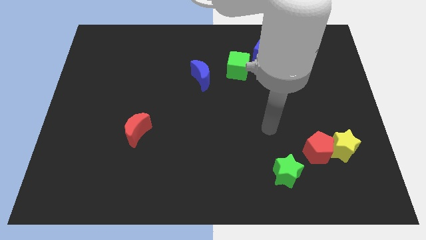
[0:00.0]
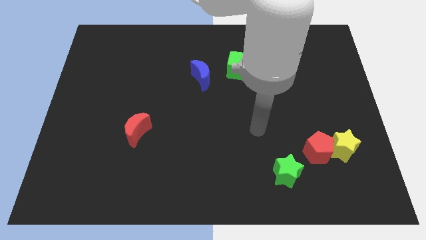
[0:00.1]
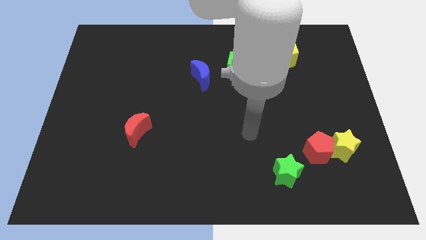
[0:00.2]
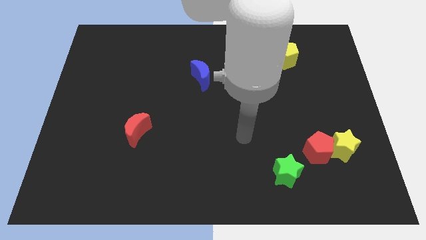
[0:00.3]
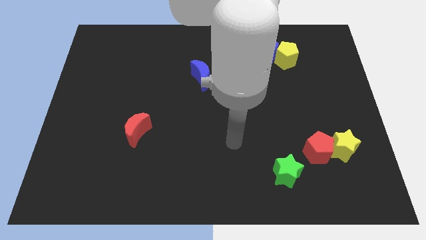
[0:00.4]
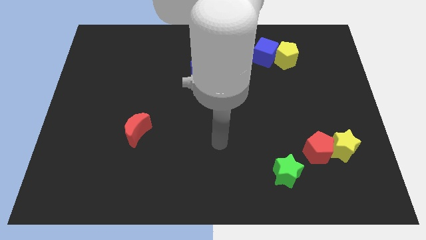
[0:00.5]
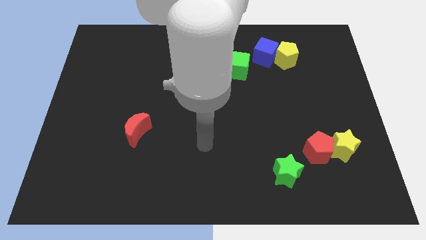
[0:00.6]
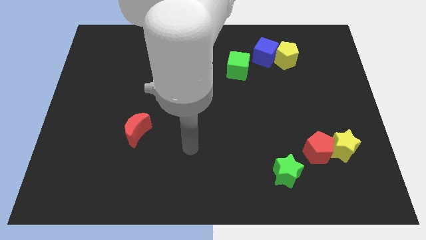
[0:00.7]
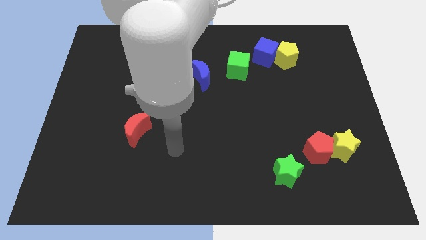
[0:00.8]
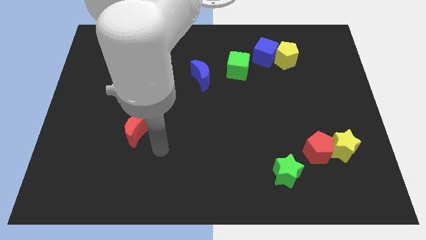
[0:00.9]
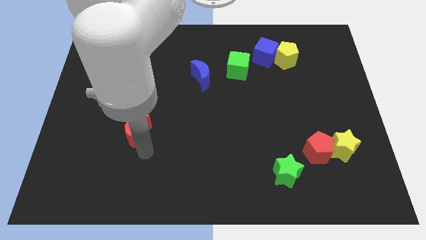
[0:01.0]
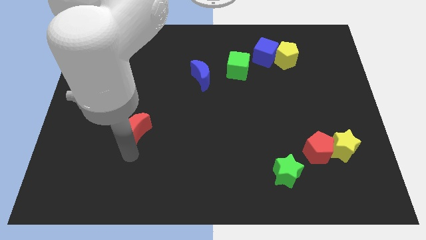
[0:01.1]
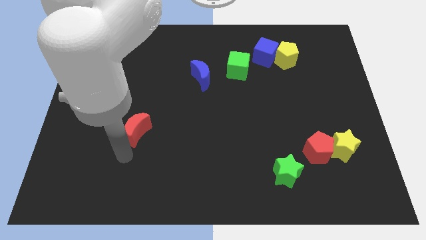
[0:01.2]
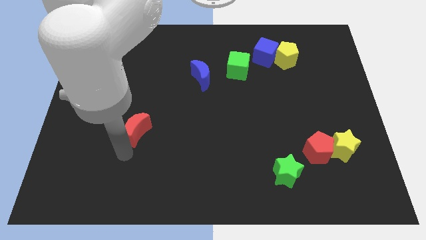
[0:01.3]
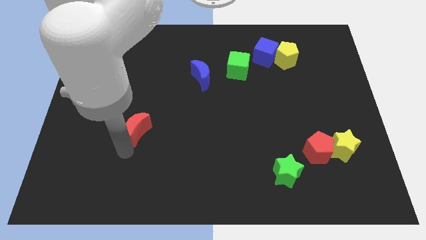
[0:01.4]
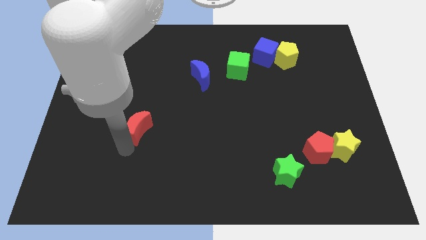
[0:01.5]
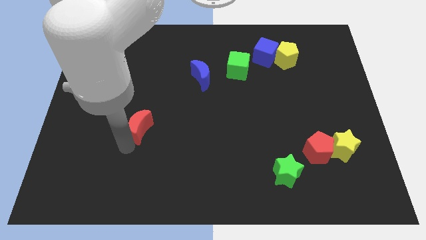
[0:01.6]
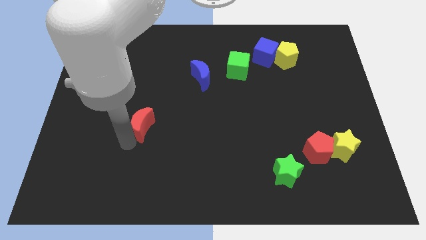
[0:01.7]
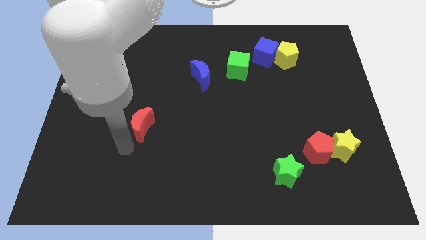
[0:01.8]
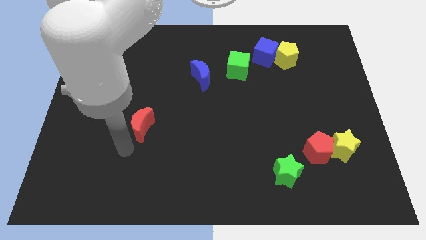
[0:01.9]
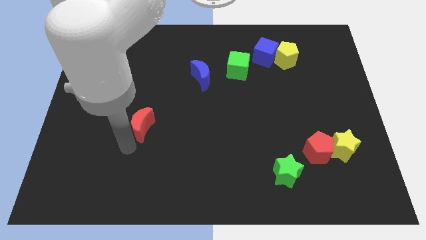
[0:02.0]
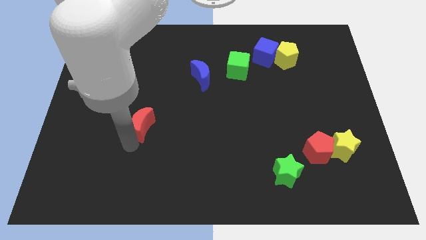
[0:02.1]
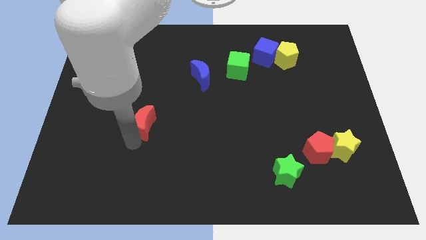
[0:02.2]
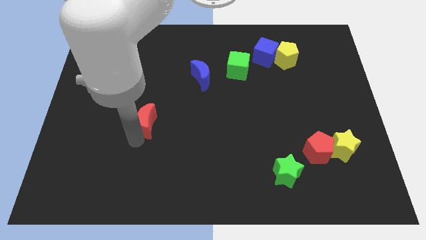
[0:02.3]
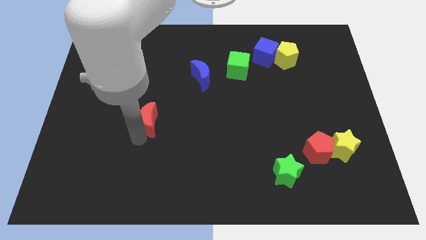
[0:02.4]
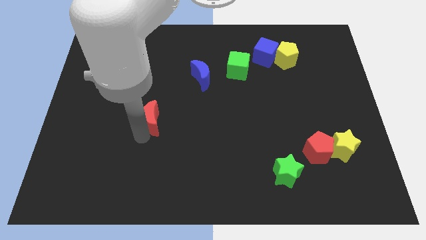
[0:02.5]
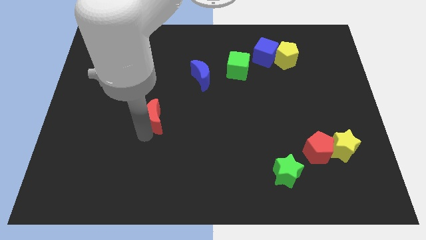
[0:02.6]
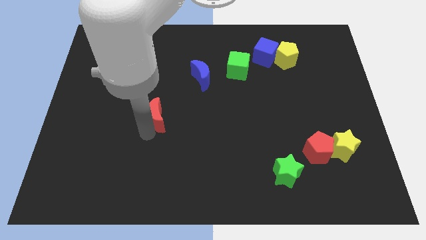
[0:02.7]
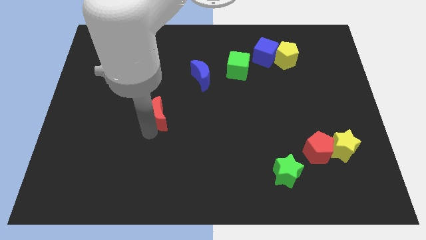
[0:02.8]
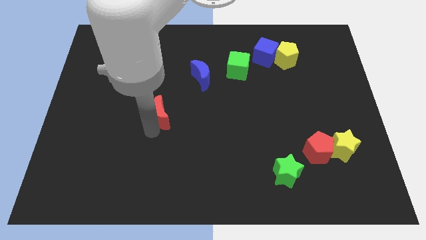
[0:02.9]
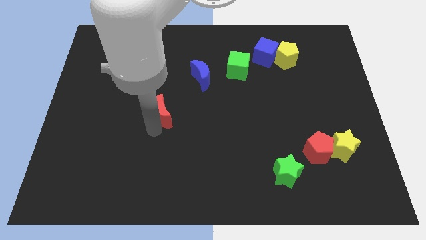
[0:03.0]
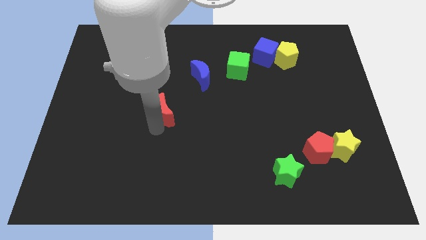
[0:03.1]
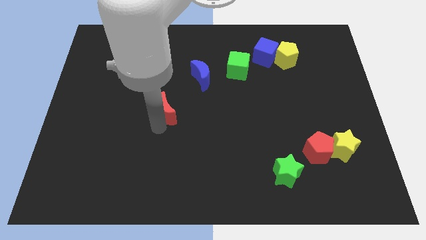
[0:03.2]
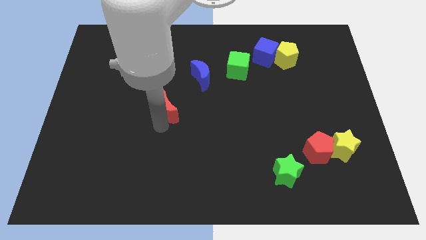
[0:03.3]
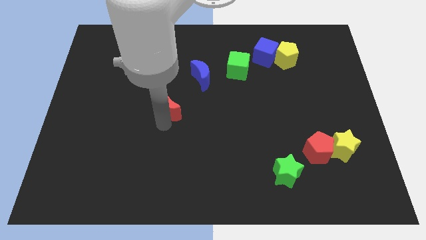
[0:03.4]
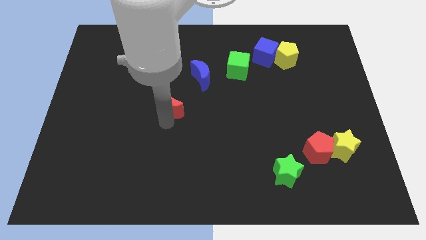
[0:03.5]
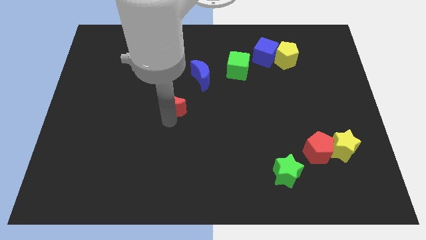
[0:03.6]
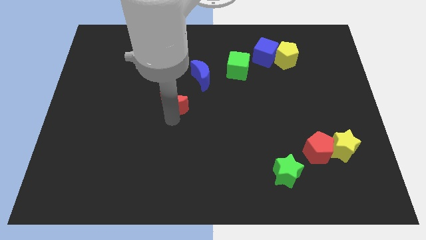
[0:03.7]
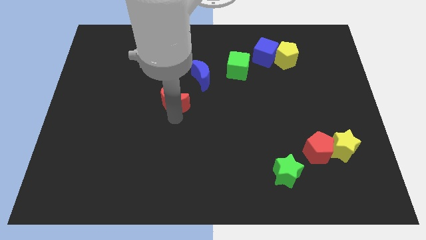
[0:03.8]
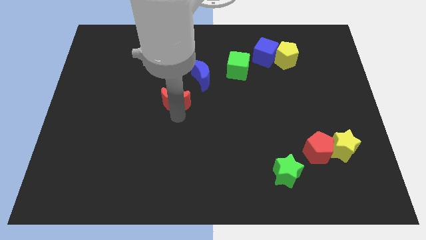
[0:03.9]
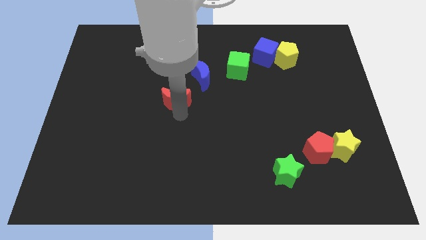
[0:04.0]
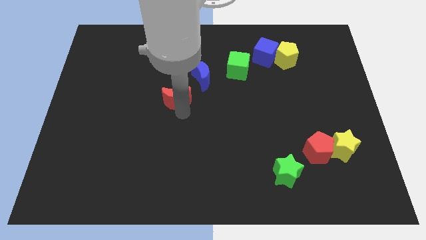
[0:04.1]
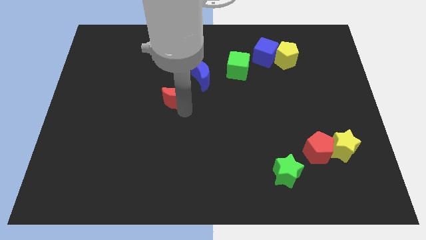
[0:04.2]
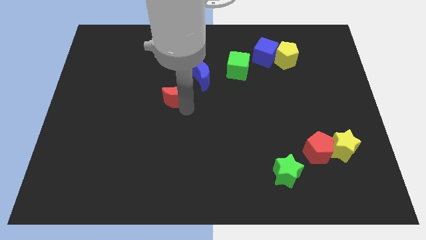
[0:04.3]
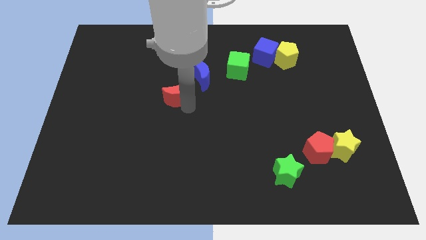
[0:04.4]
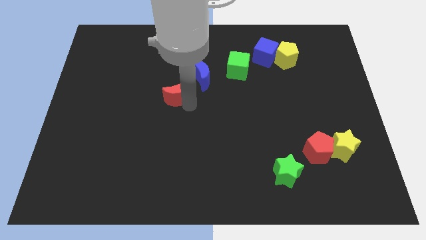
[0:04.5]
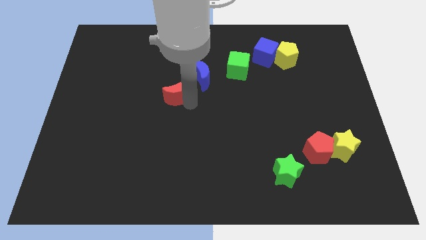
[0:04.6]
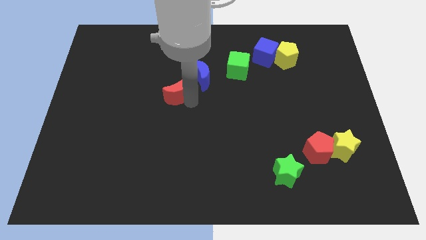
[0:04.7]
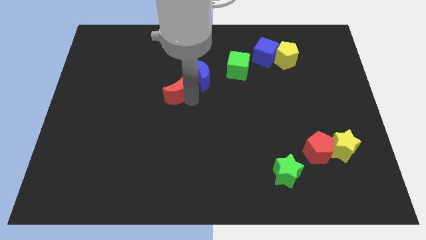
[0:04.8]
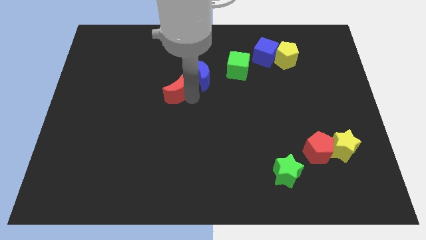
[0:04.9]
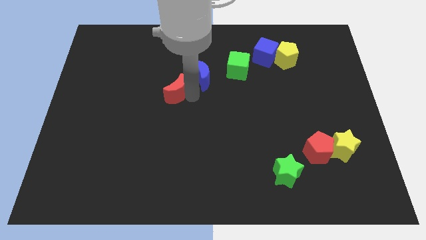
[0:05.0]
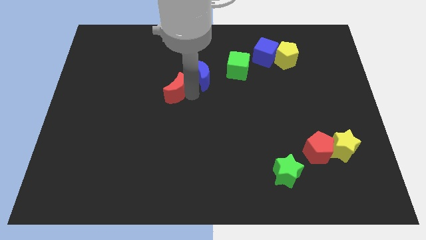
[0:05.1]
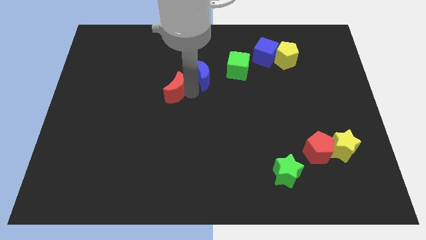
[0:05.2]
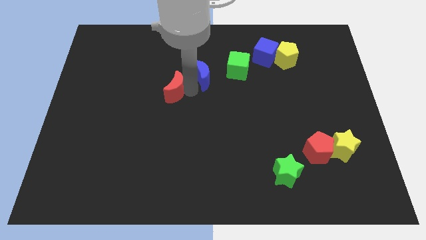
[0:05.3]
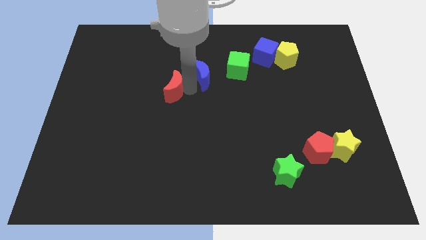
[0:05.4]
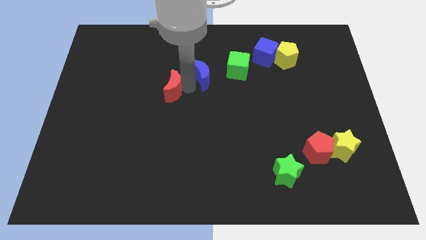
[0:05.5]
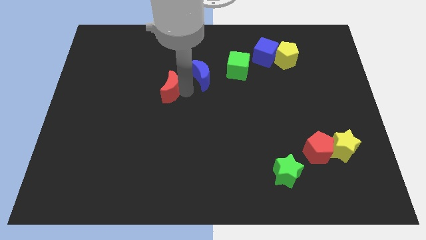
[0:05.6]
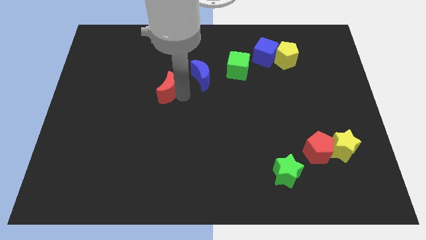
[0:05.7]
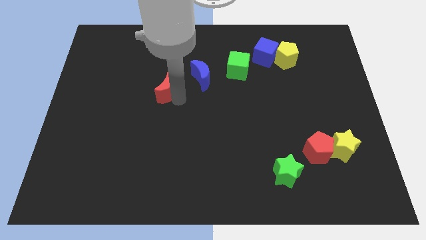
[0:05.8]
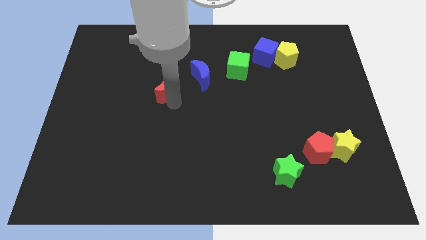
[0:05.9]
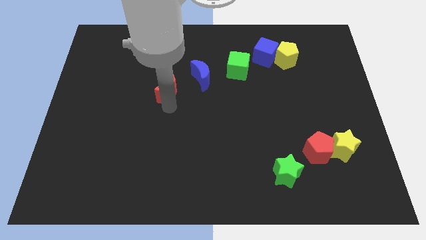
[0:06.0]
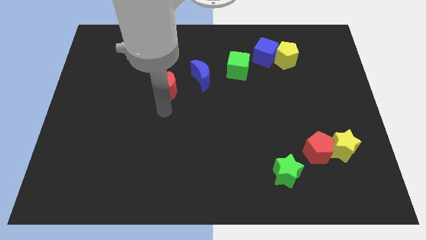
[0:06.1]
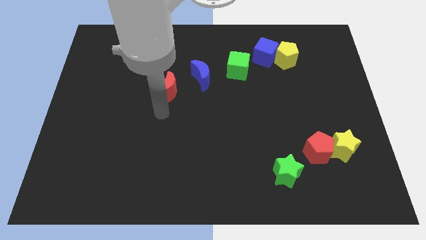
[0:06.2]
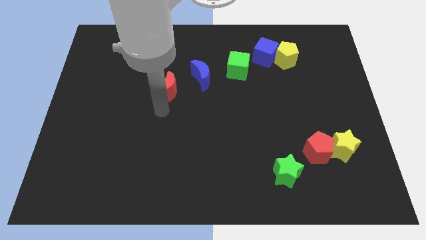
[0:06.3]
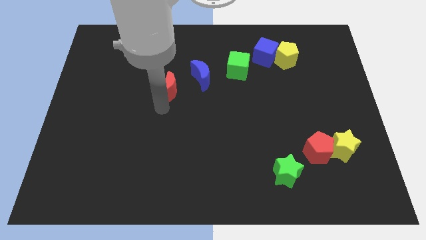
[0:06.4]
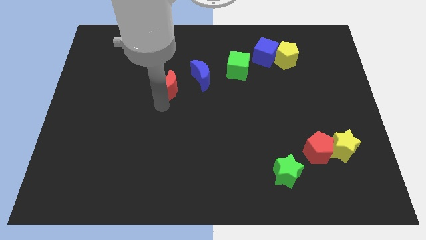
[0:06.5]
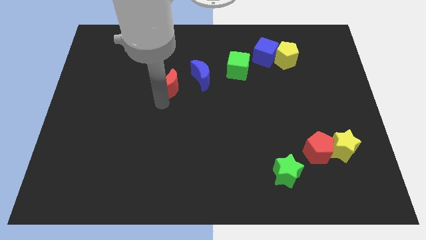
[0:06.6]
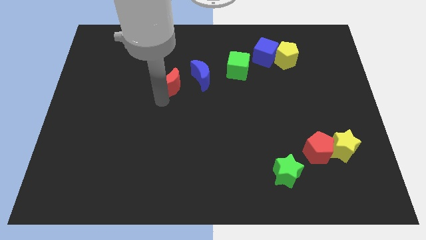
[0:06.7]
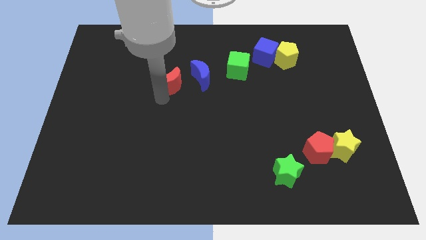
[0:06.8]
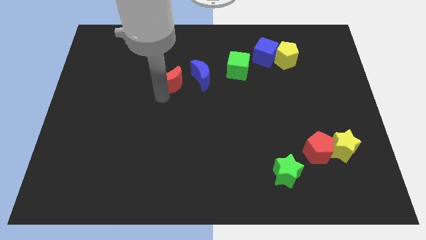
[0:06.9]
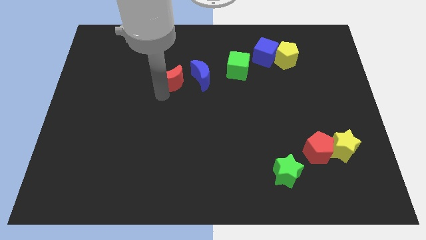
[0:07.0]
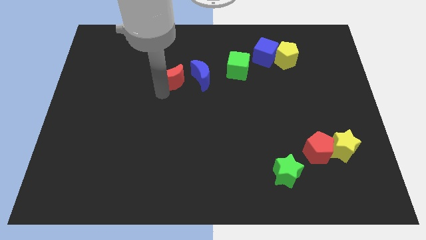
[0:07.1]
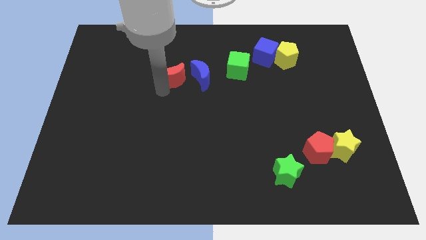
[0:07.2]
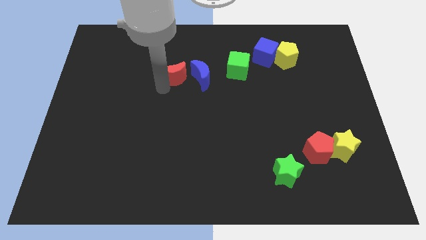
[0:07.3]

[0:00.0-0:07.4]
put the red moon to the top left of the blue moon

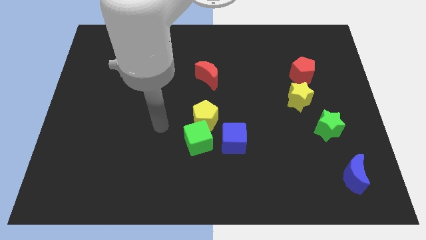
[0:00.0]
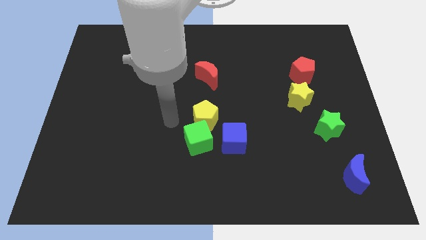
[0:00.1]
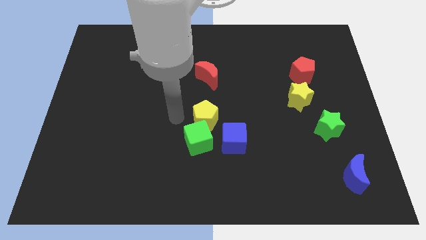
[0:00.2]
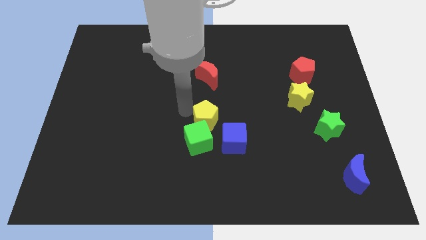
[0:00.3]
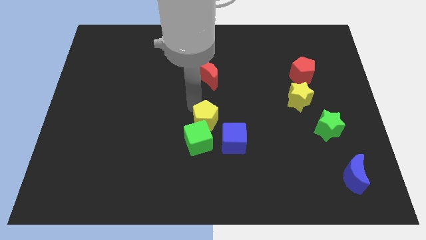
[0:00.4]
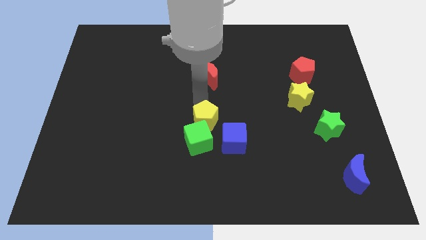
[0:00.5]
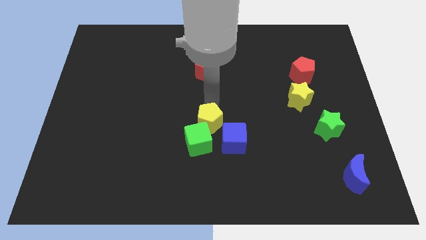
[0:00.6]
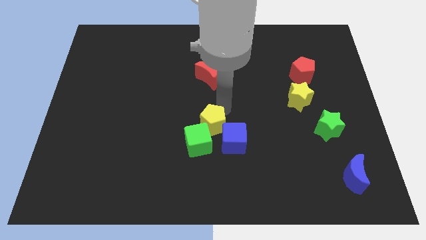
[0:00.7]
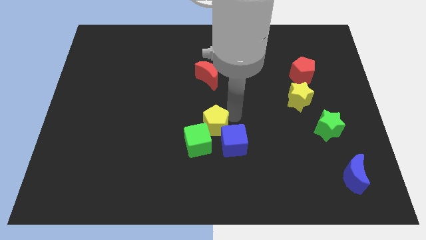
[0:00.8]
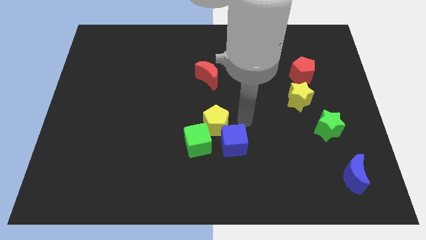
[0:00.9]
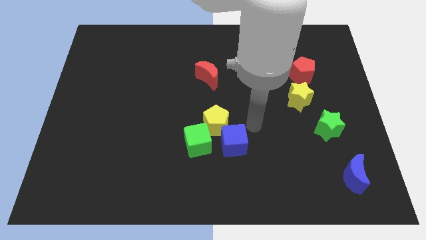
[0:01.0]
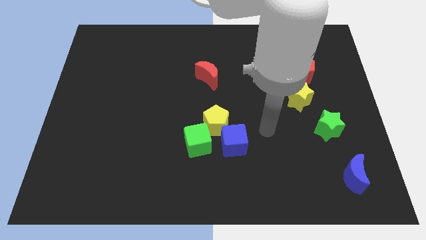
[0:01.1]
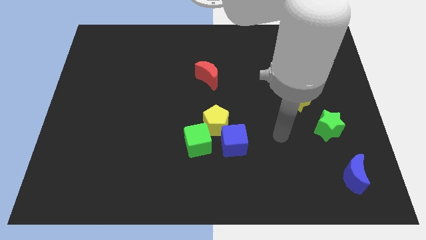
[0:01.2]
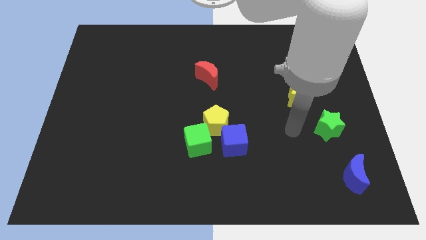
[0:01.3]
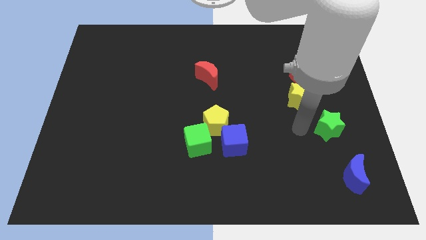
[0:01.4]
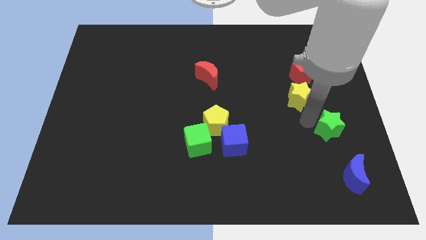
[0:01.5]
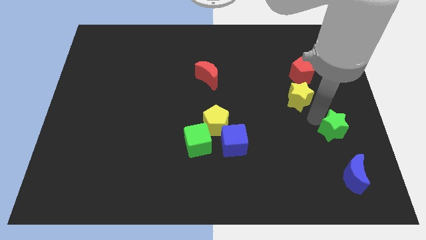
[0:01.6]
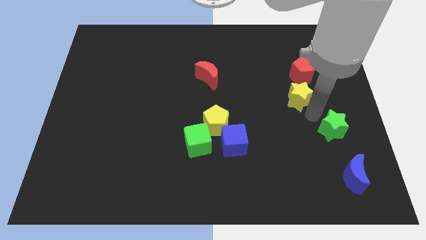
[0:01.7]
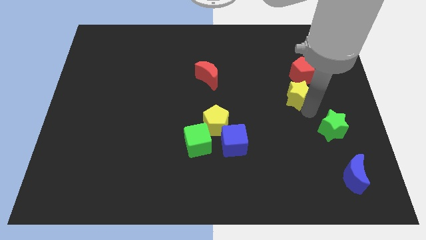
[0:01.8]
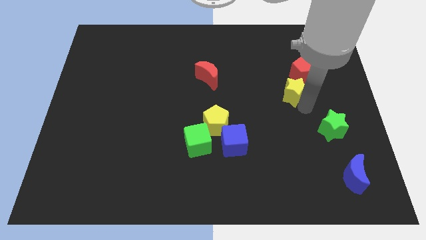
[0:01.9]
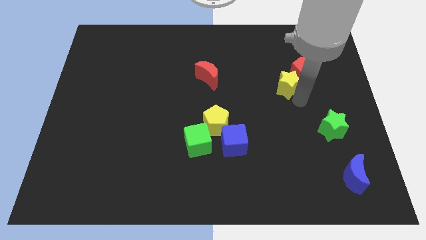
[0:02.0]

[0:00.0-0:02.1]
slide the yellow star to the left of the red pentagon
